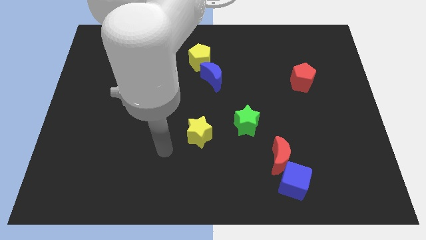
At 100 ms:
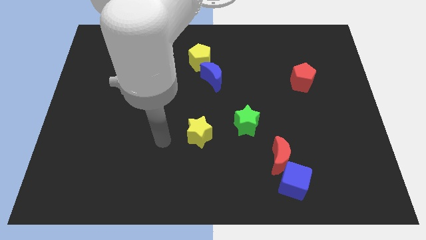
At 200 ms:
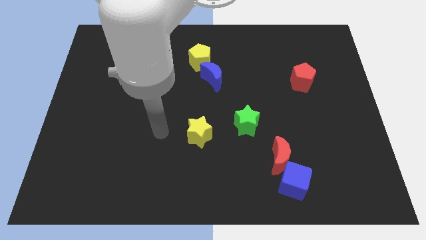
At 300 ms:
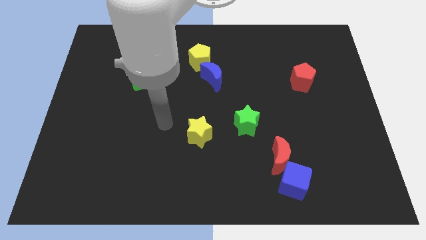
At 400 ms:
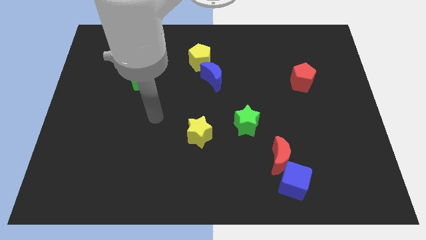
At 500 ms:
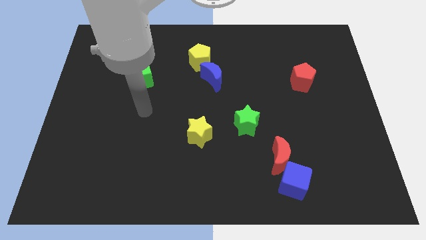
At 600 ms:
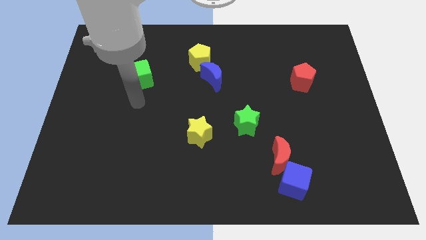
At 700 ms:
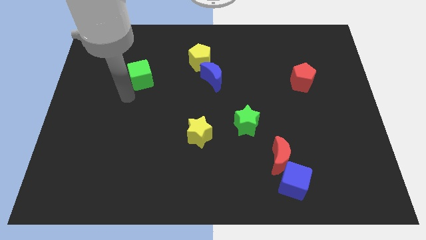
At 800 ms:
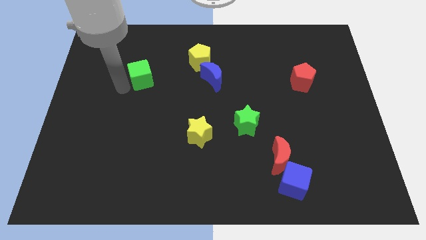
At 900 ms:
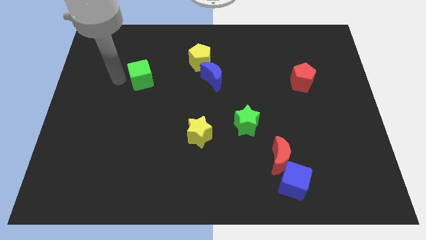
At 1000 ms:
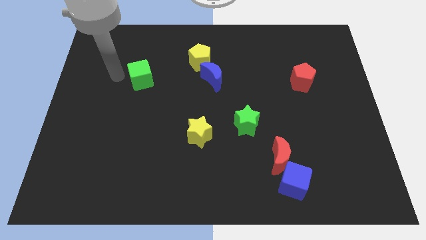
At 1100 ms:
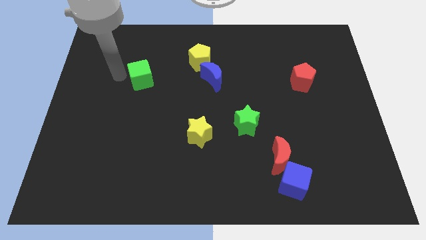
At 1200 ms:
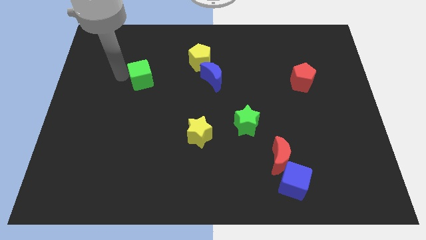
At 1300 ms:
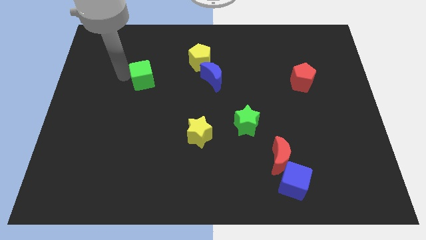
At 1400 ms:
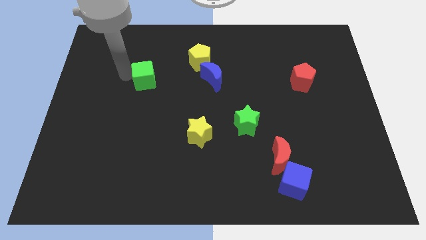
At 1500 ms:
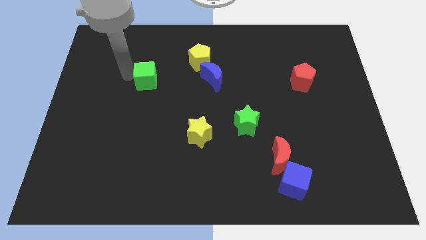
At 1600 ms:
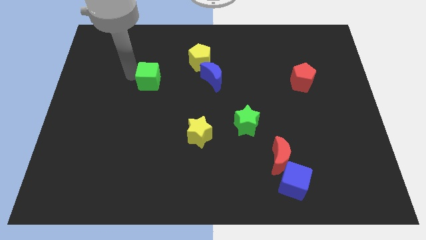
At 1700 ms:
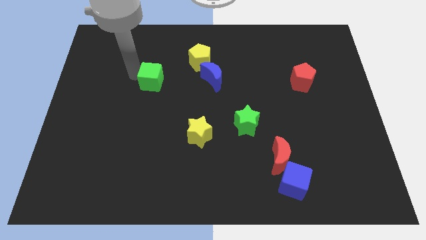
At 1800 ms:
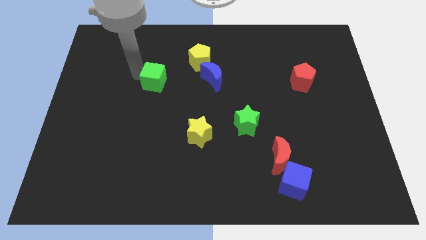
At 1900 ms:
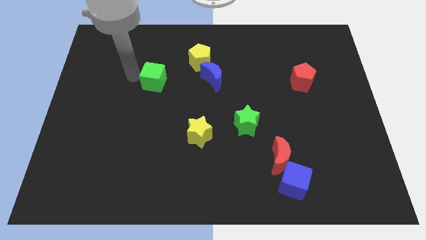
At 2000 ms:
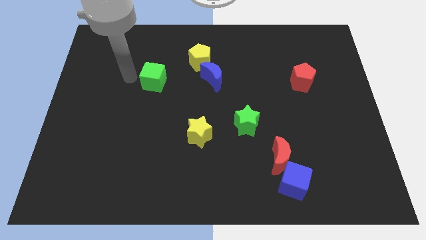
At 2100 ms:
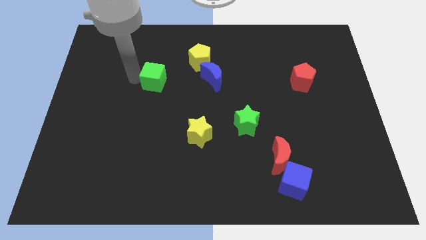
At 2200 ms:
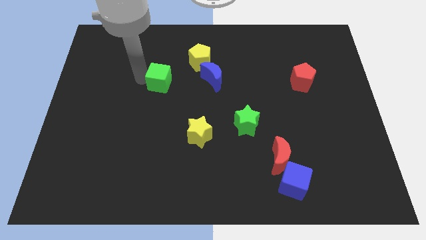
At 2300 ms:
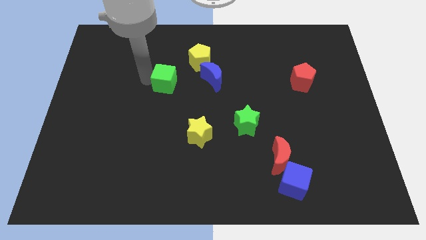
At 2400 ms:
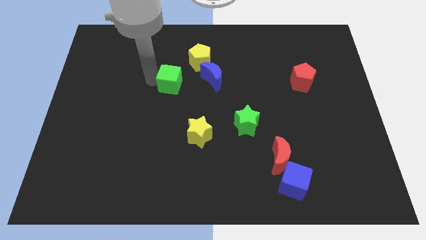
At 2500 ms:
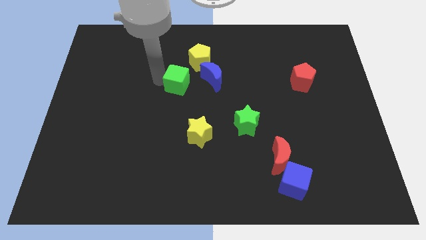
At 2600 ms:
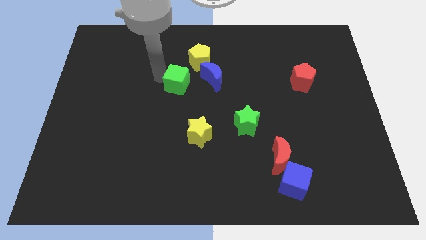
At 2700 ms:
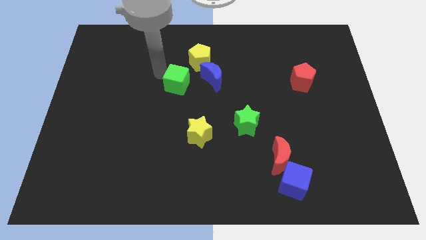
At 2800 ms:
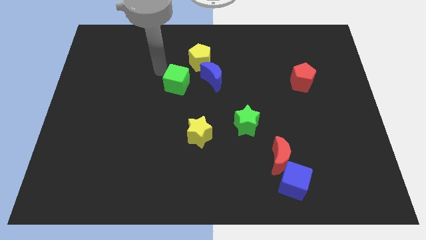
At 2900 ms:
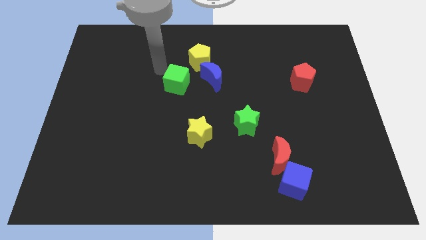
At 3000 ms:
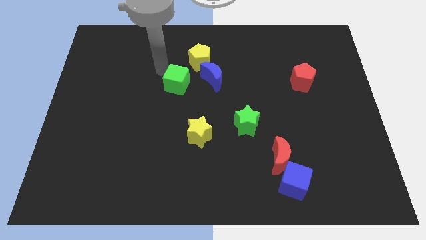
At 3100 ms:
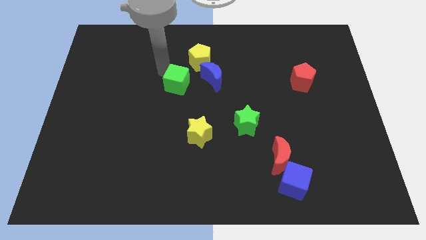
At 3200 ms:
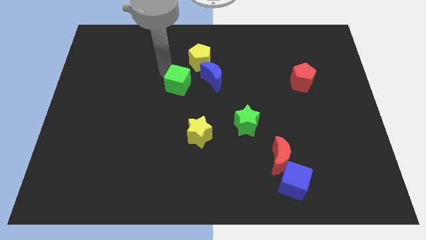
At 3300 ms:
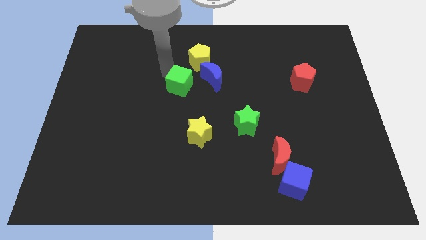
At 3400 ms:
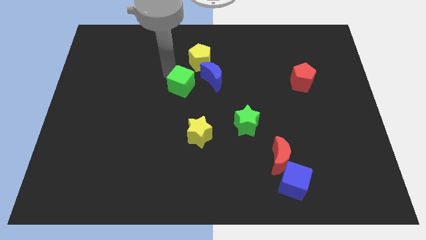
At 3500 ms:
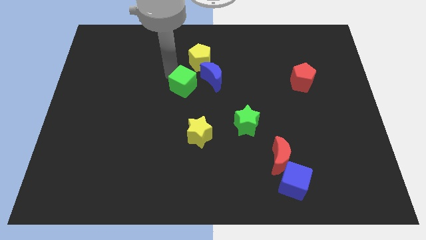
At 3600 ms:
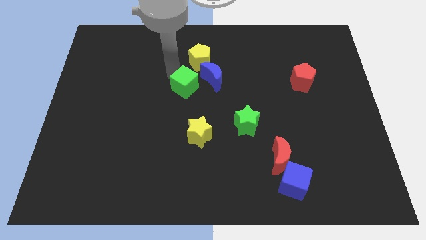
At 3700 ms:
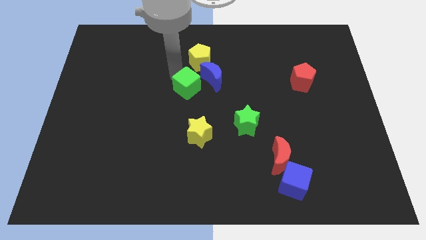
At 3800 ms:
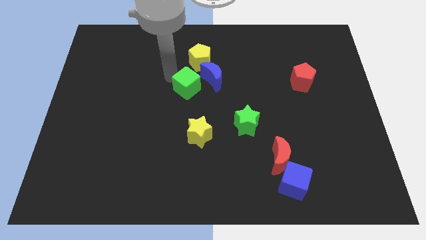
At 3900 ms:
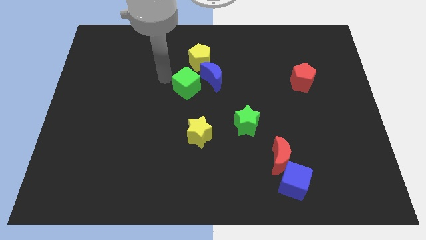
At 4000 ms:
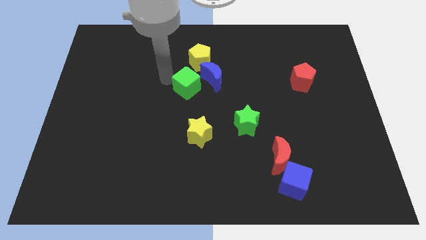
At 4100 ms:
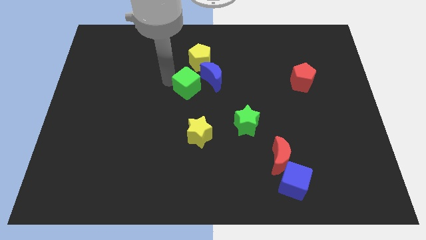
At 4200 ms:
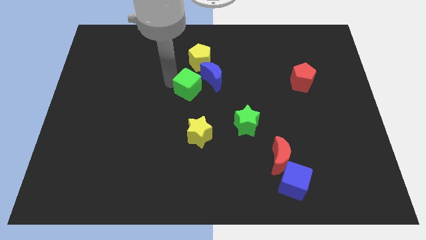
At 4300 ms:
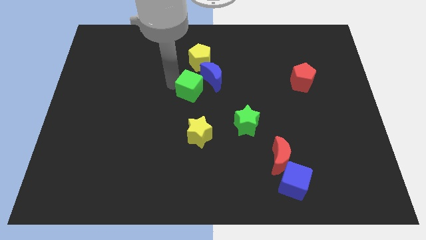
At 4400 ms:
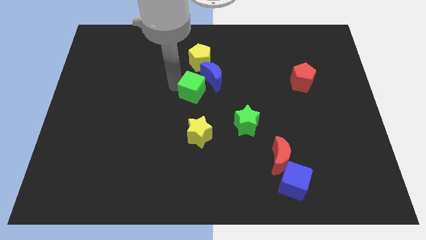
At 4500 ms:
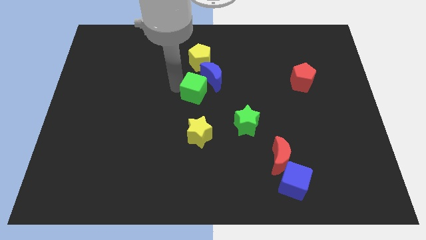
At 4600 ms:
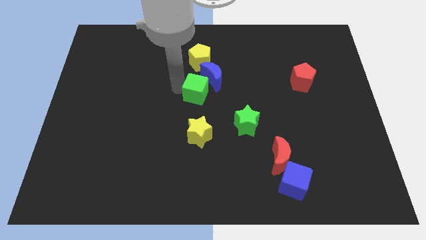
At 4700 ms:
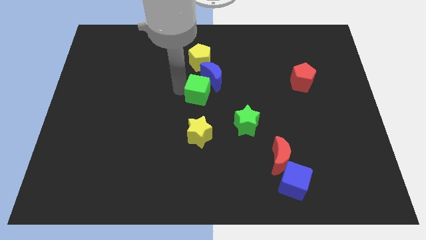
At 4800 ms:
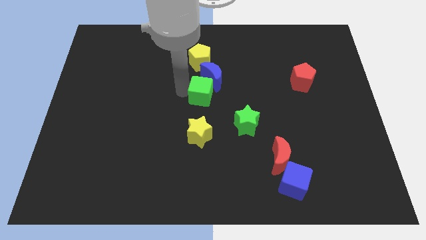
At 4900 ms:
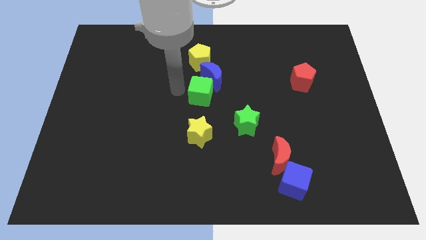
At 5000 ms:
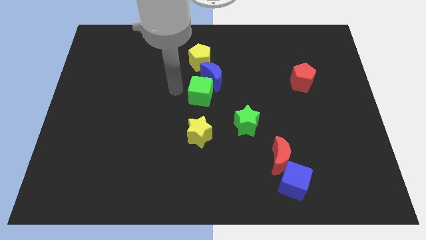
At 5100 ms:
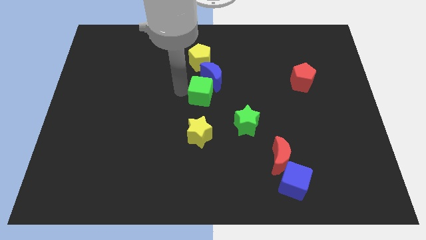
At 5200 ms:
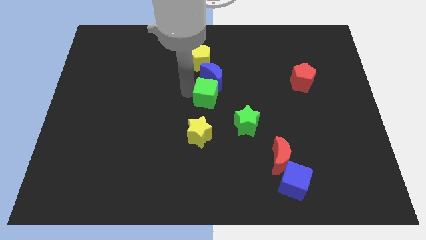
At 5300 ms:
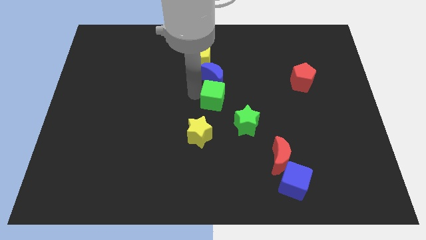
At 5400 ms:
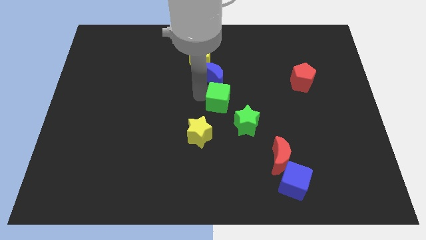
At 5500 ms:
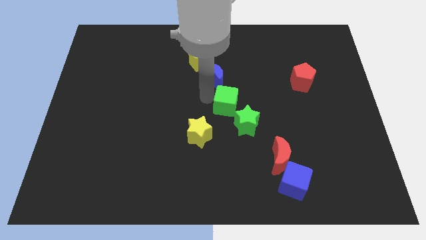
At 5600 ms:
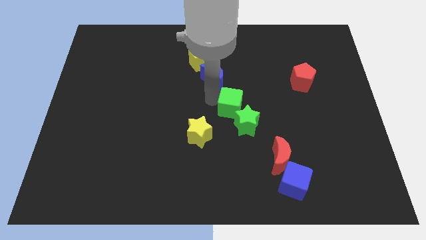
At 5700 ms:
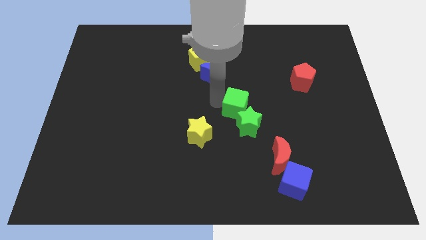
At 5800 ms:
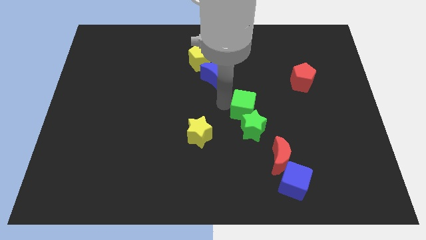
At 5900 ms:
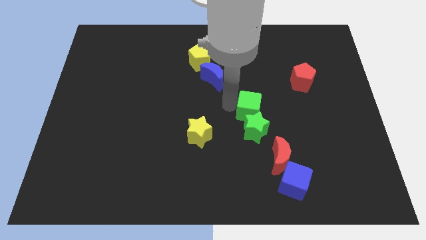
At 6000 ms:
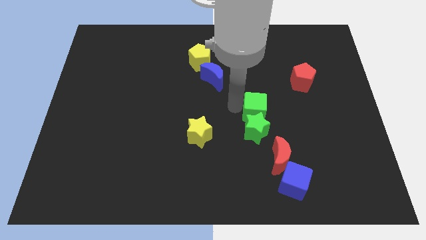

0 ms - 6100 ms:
move the green cube above the red moon

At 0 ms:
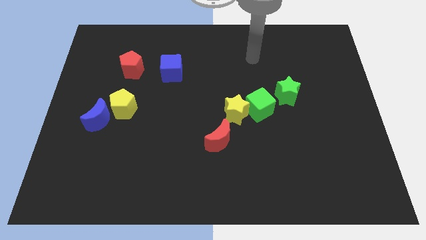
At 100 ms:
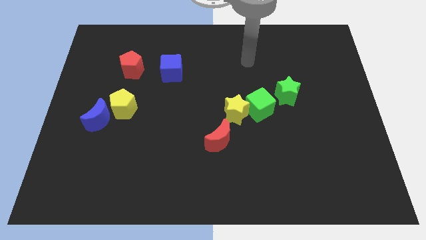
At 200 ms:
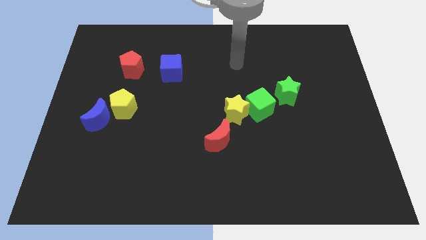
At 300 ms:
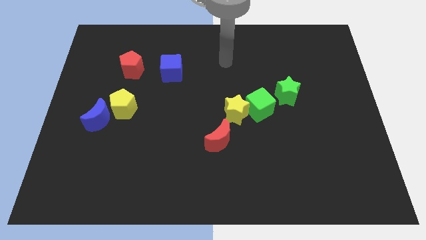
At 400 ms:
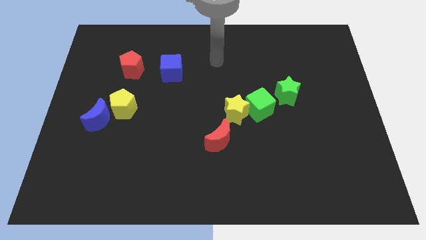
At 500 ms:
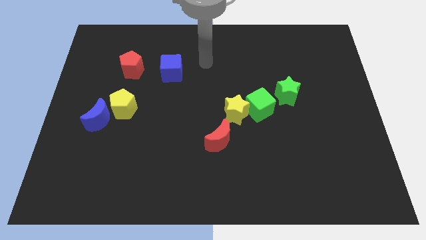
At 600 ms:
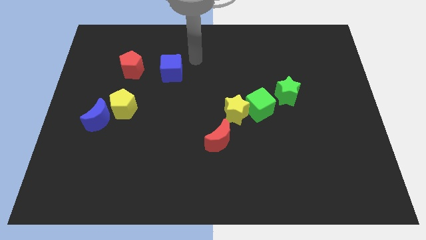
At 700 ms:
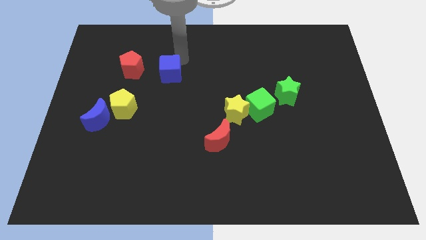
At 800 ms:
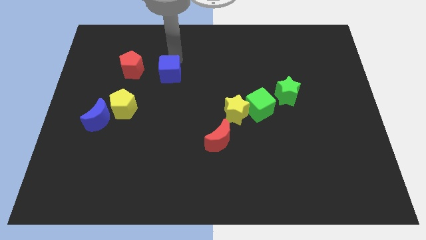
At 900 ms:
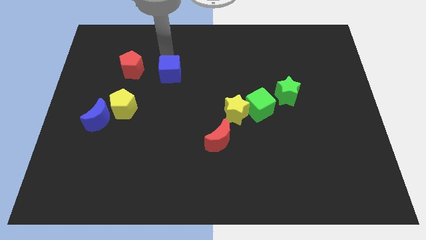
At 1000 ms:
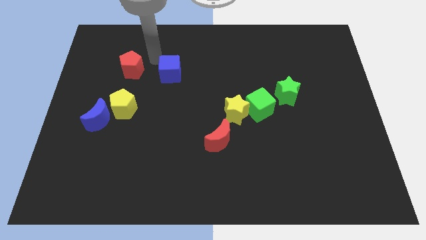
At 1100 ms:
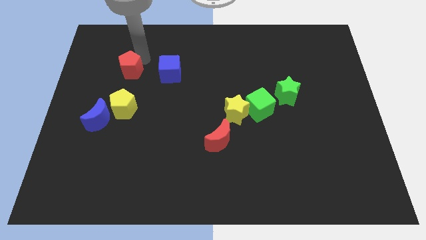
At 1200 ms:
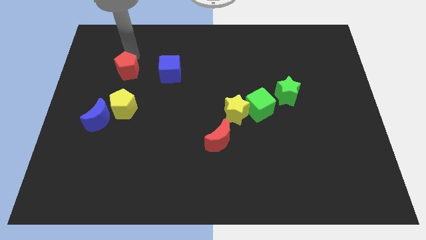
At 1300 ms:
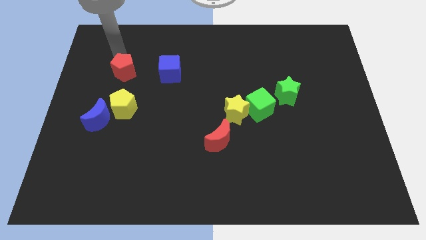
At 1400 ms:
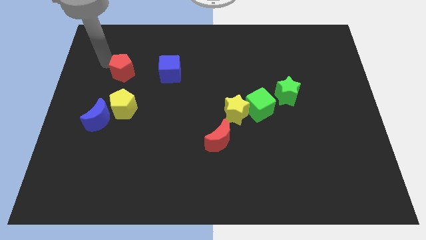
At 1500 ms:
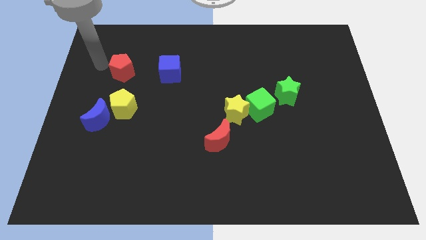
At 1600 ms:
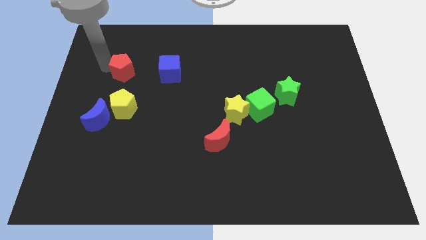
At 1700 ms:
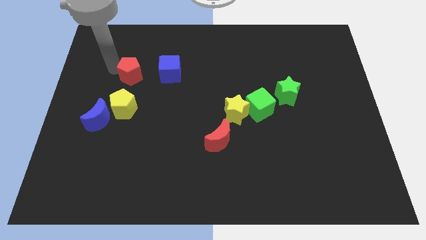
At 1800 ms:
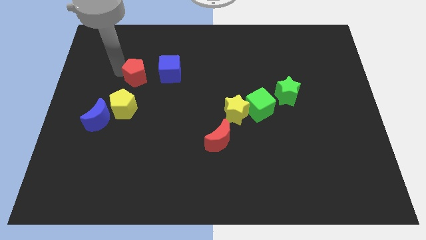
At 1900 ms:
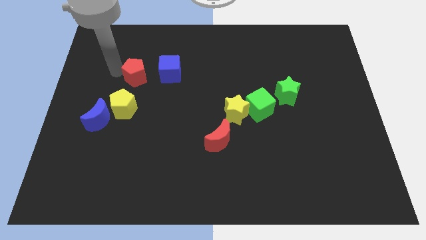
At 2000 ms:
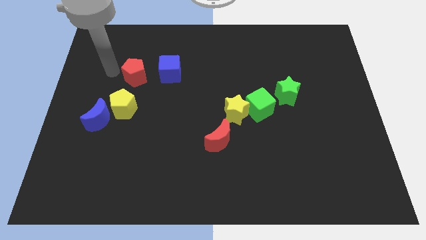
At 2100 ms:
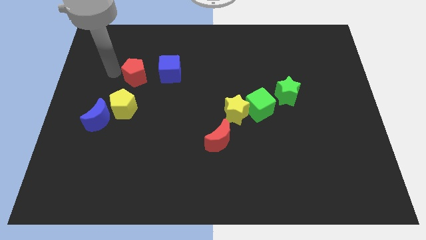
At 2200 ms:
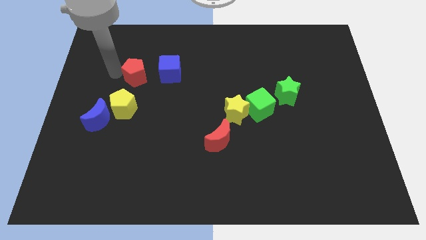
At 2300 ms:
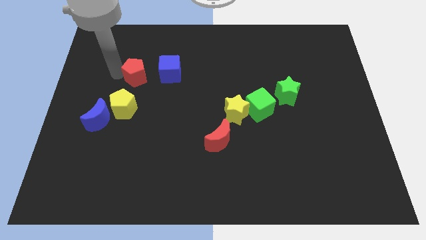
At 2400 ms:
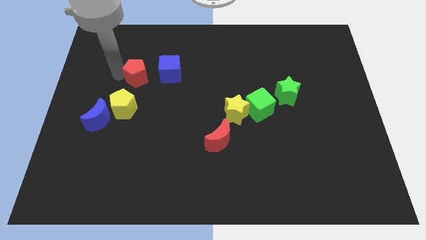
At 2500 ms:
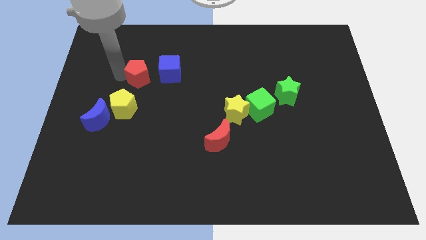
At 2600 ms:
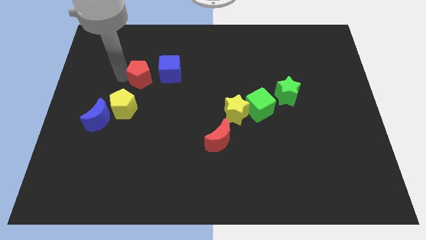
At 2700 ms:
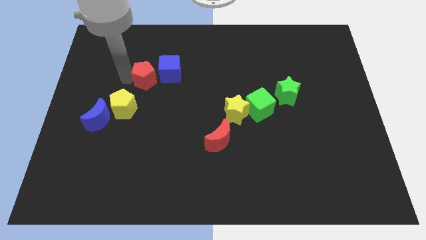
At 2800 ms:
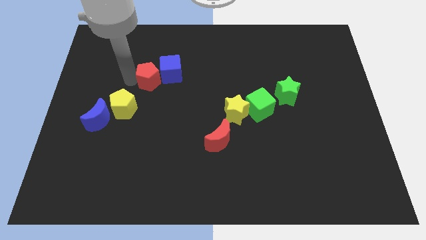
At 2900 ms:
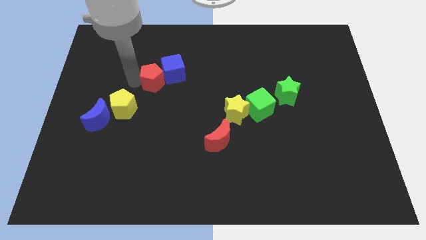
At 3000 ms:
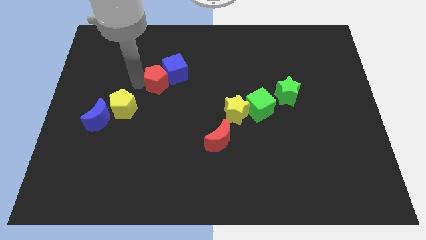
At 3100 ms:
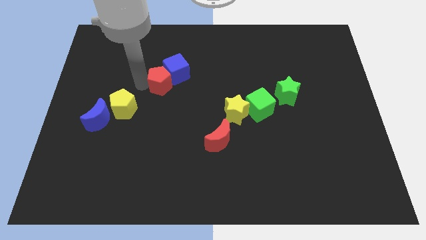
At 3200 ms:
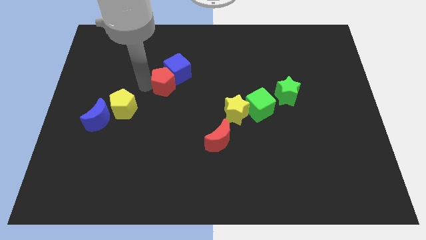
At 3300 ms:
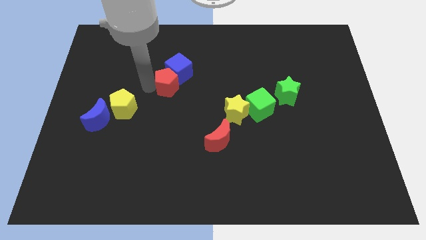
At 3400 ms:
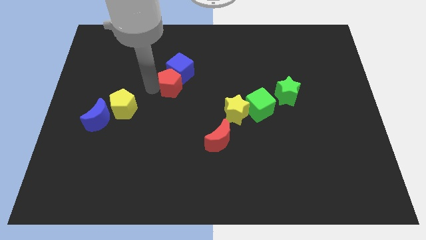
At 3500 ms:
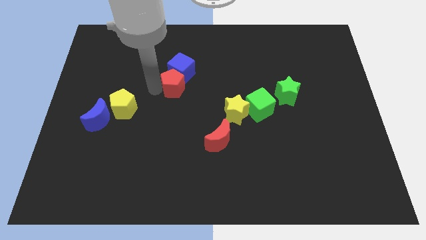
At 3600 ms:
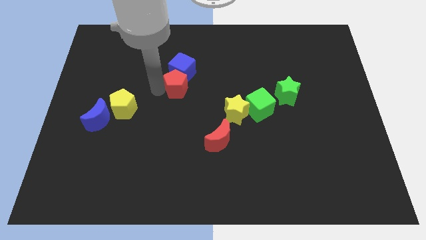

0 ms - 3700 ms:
push the red pentagon to the bottom right of the blue cube
